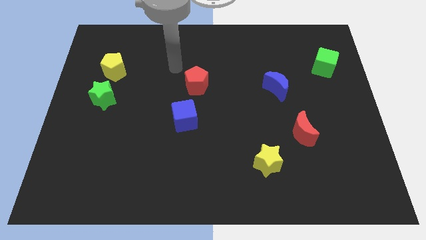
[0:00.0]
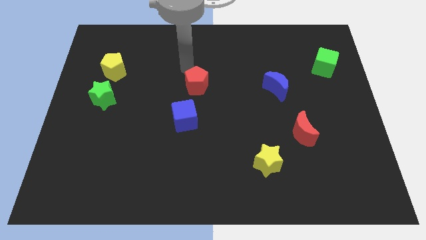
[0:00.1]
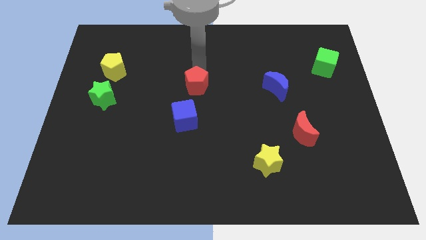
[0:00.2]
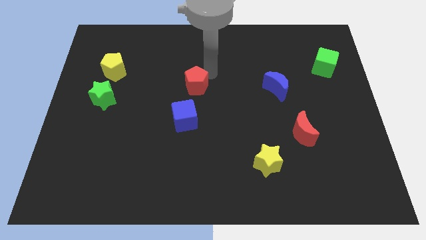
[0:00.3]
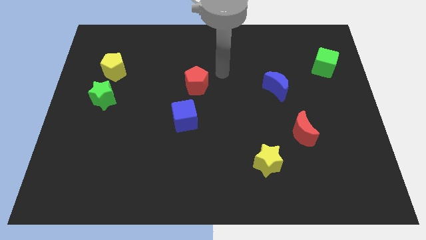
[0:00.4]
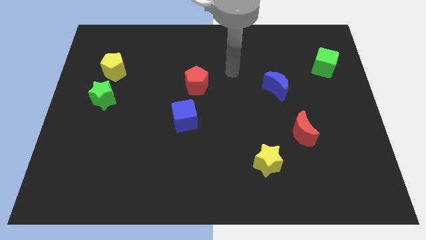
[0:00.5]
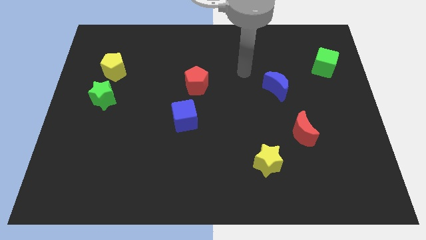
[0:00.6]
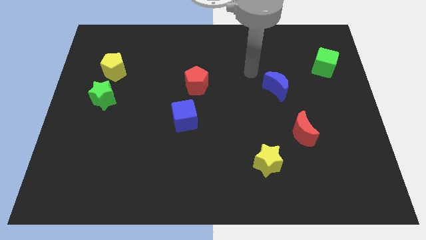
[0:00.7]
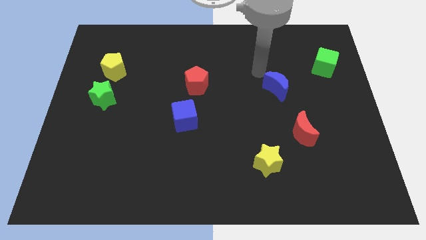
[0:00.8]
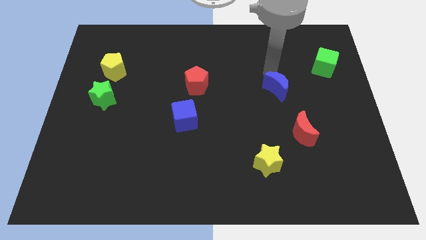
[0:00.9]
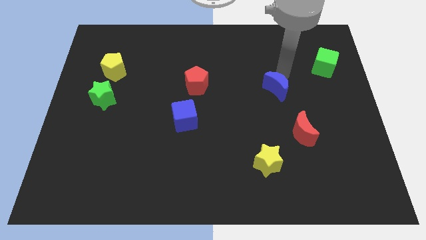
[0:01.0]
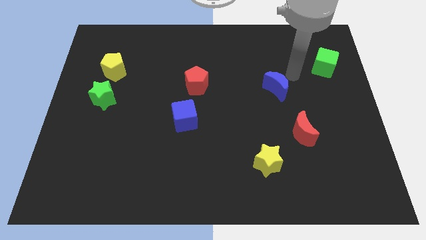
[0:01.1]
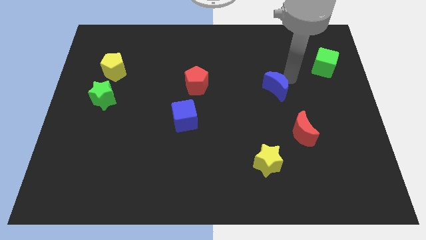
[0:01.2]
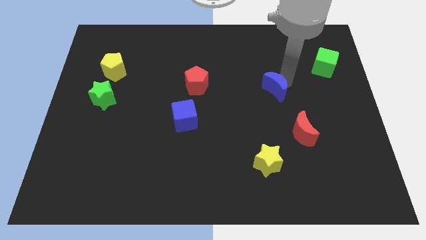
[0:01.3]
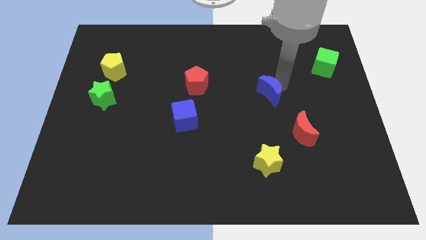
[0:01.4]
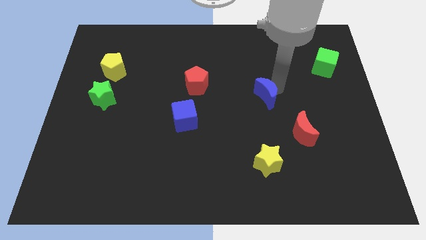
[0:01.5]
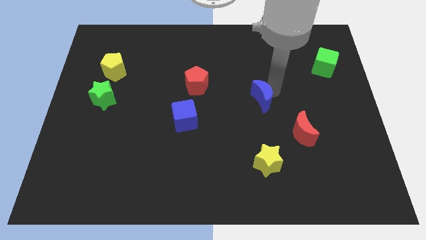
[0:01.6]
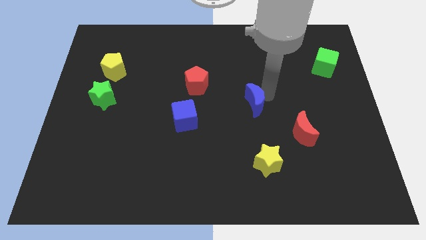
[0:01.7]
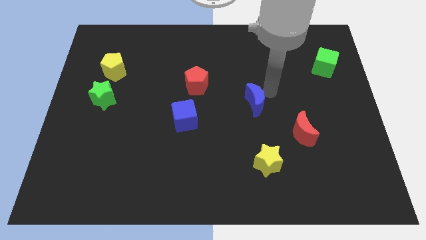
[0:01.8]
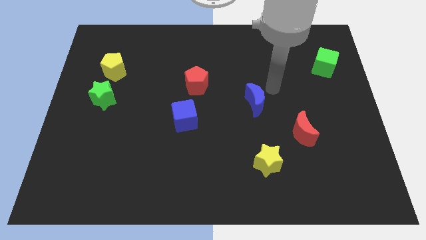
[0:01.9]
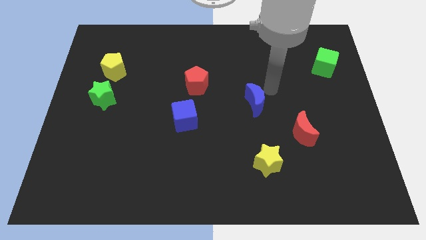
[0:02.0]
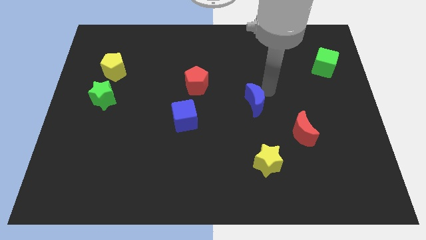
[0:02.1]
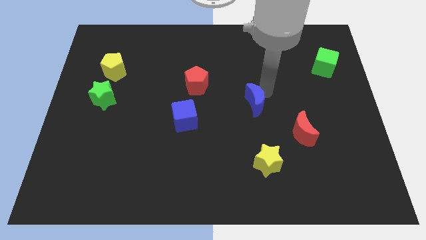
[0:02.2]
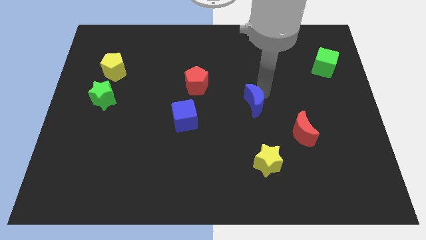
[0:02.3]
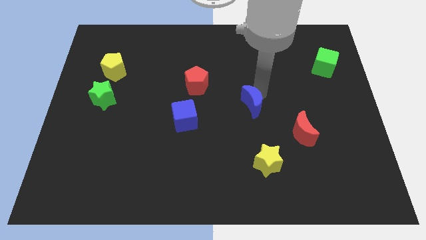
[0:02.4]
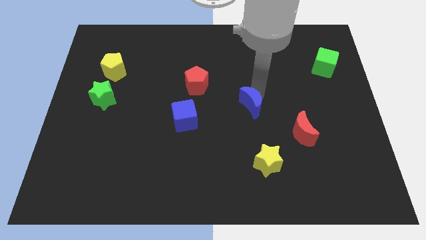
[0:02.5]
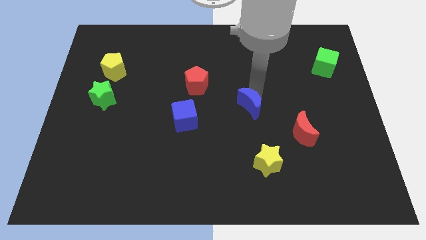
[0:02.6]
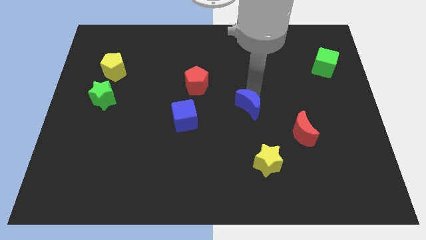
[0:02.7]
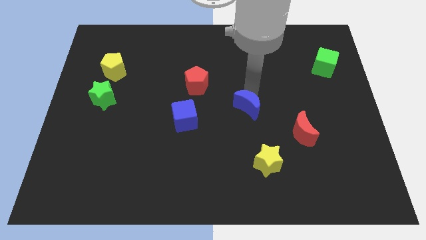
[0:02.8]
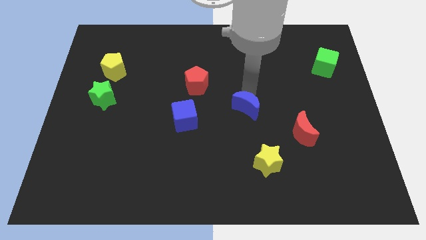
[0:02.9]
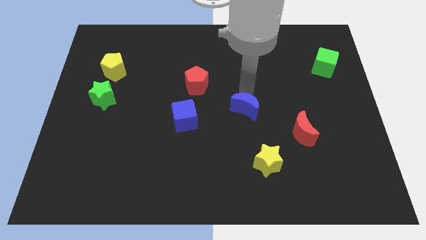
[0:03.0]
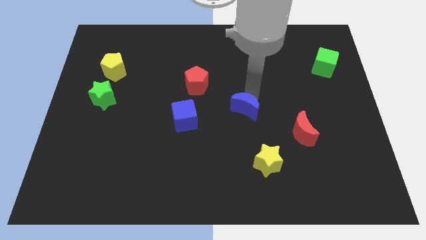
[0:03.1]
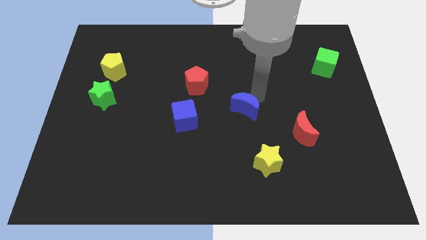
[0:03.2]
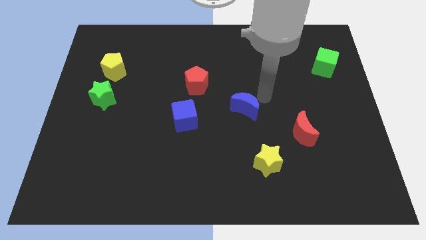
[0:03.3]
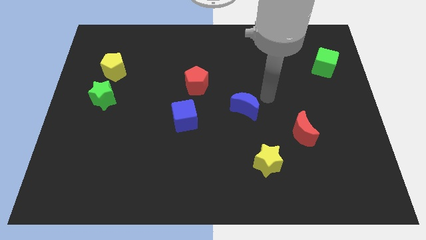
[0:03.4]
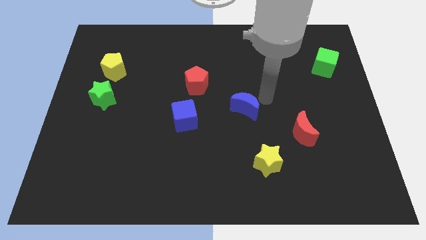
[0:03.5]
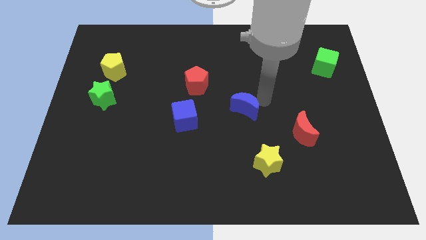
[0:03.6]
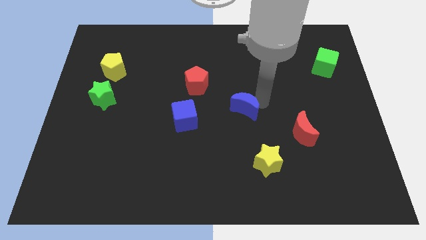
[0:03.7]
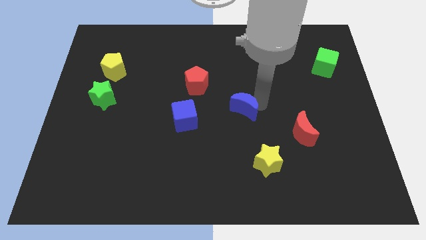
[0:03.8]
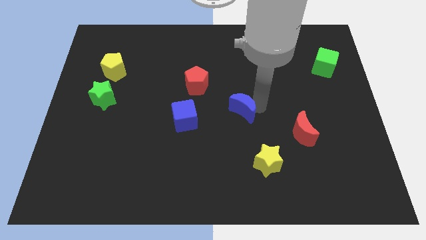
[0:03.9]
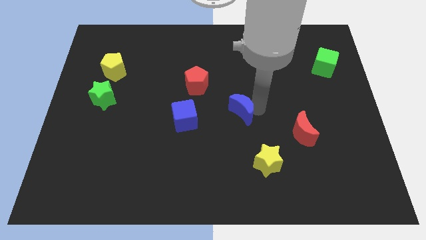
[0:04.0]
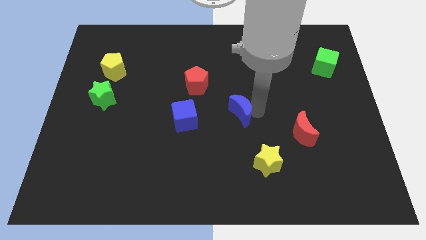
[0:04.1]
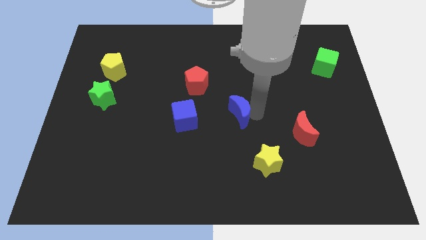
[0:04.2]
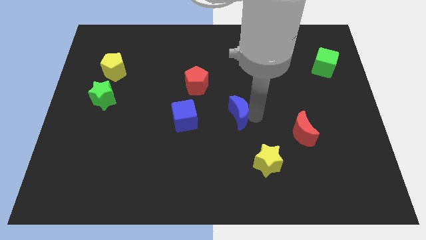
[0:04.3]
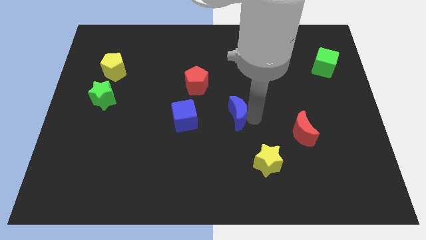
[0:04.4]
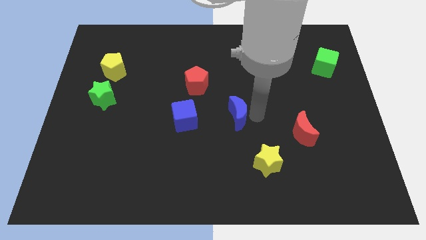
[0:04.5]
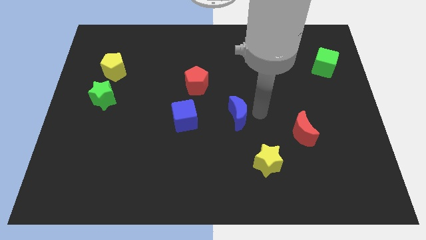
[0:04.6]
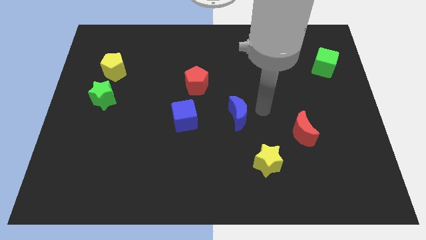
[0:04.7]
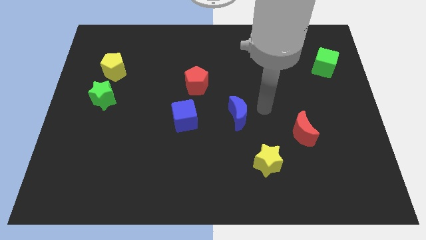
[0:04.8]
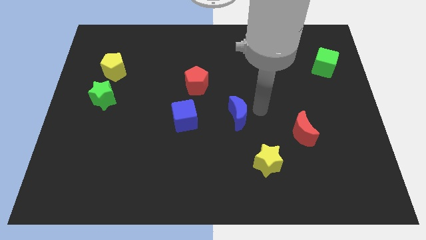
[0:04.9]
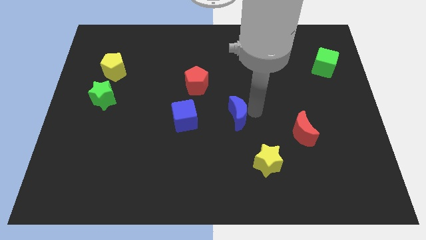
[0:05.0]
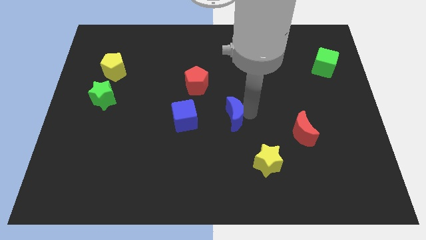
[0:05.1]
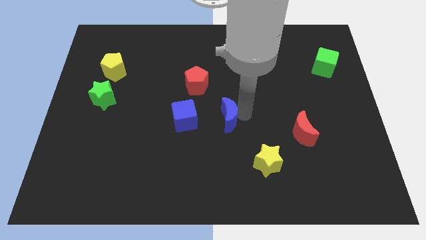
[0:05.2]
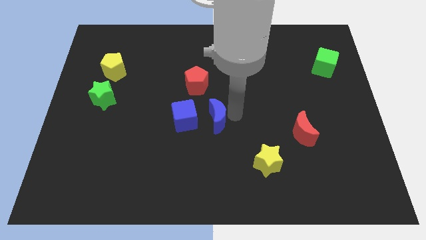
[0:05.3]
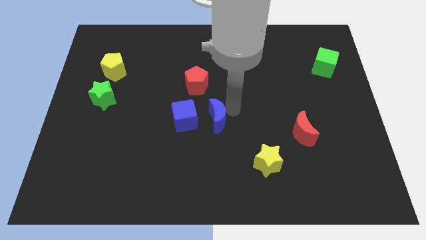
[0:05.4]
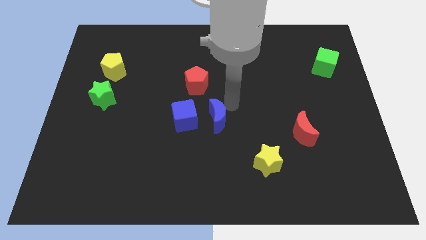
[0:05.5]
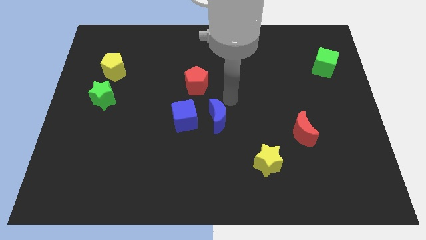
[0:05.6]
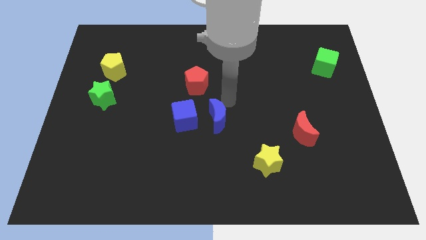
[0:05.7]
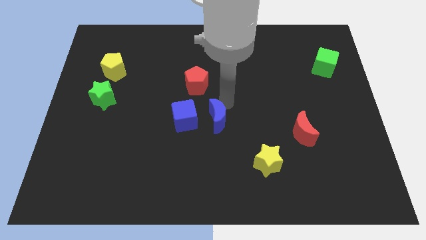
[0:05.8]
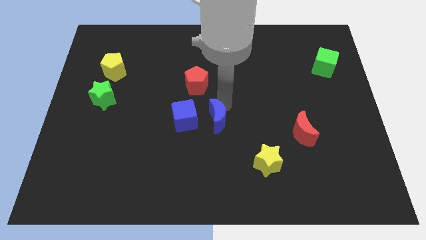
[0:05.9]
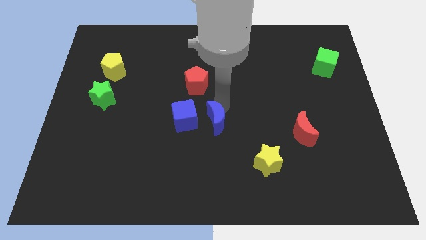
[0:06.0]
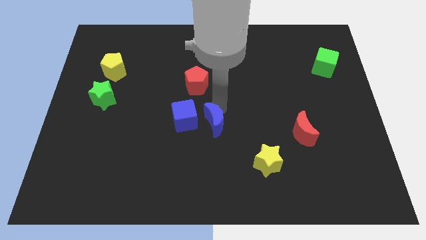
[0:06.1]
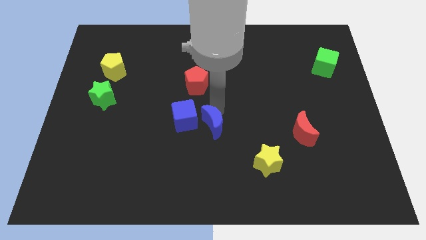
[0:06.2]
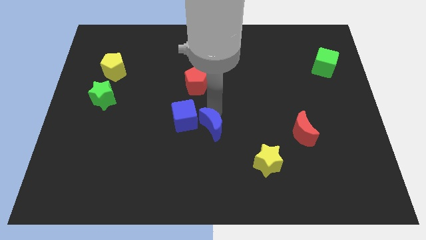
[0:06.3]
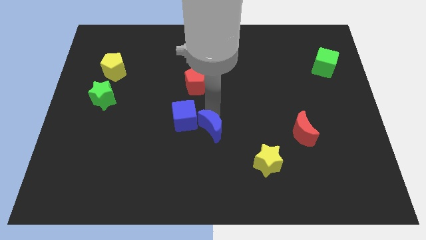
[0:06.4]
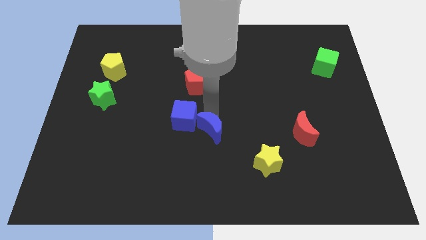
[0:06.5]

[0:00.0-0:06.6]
slide the blue moon diagonally down and to the left

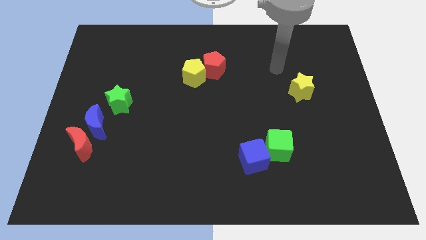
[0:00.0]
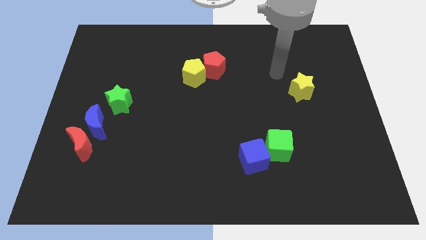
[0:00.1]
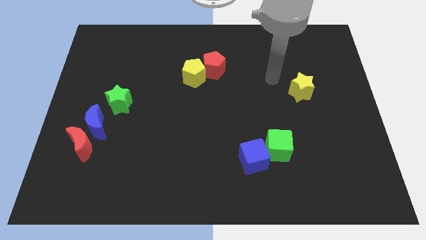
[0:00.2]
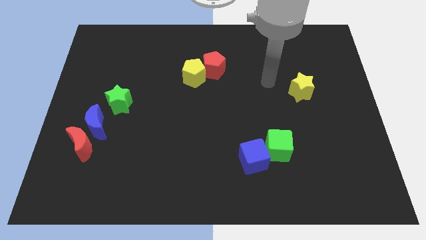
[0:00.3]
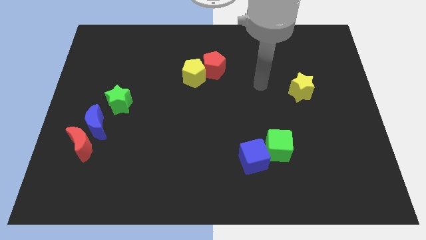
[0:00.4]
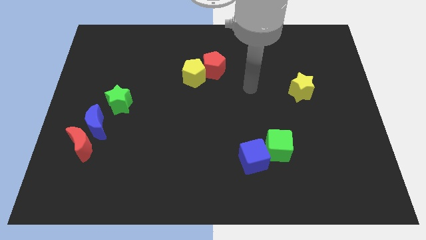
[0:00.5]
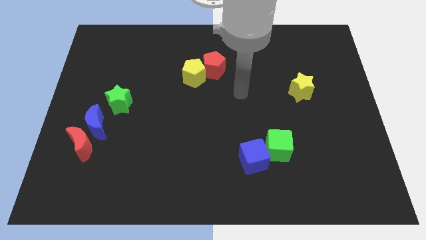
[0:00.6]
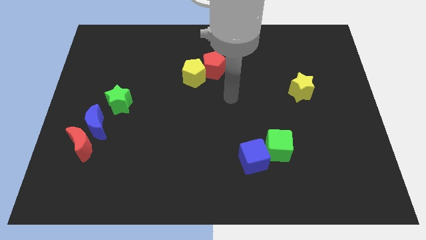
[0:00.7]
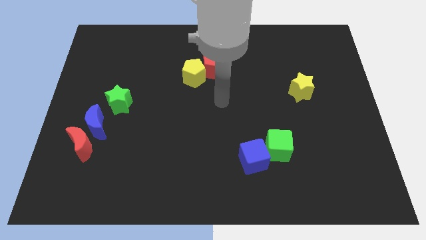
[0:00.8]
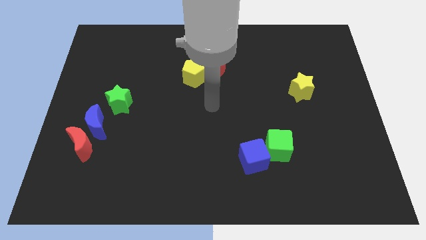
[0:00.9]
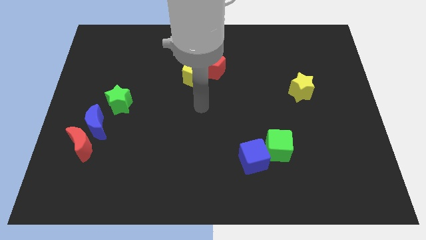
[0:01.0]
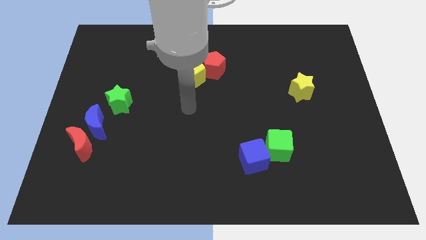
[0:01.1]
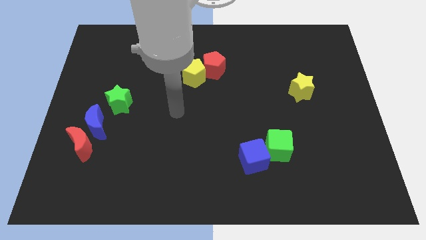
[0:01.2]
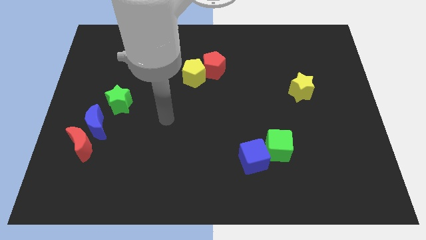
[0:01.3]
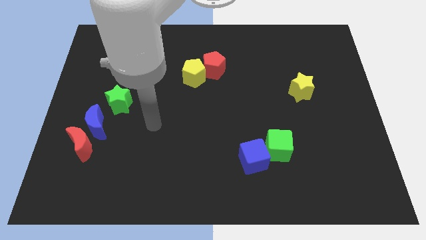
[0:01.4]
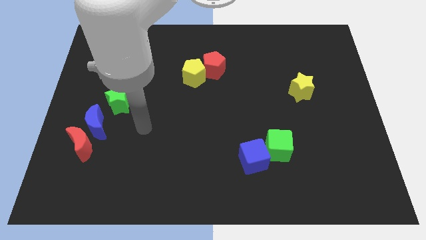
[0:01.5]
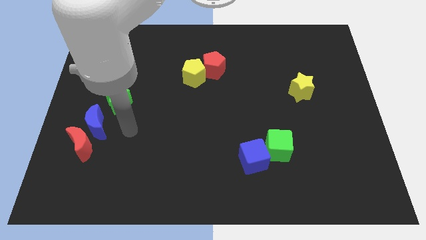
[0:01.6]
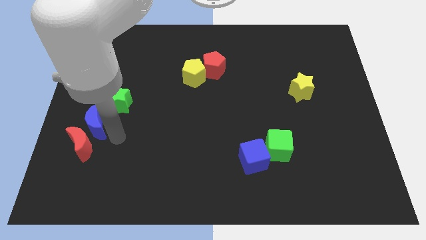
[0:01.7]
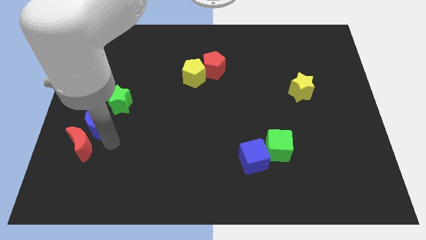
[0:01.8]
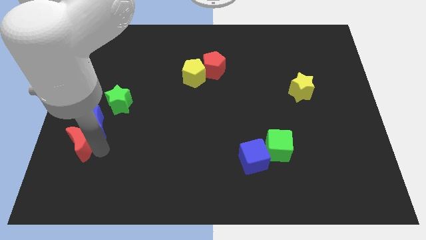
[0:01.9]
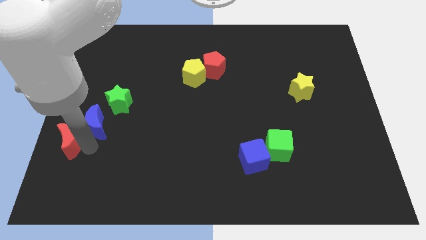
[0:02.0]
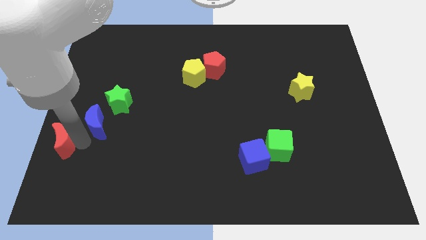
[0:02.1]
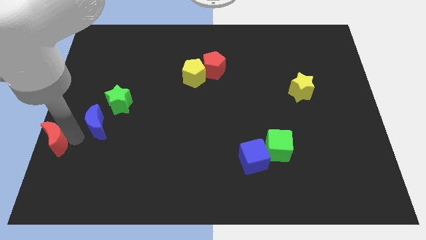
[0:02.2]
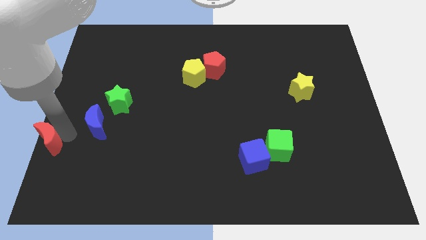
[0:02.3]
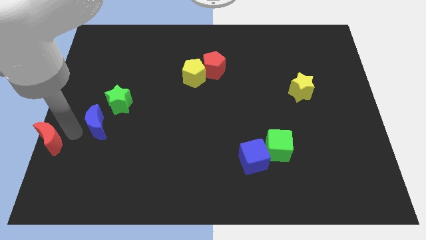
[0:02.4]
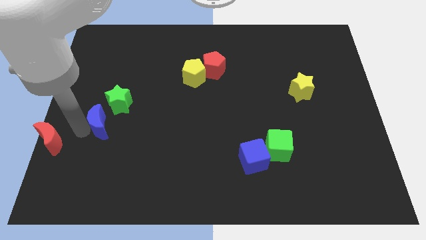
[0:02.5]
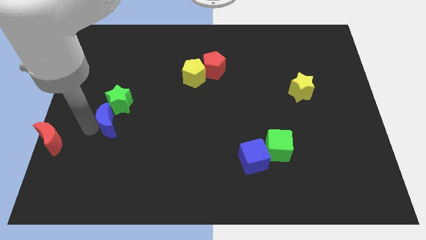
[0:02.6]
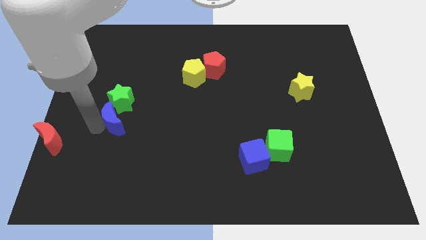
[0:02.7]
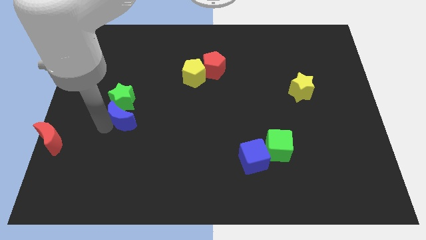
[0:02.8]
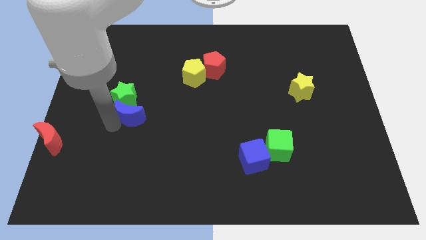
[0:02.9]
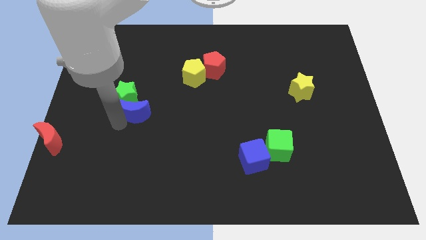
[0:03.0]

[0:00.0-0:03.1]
push the blue moon up and then right slightly
